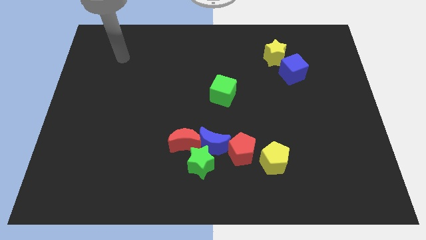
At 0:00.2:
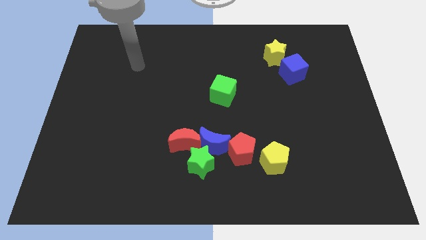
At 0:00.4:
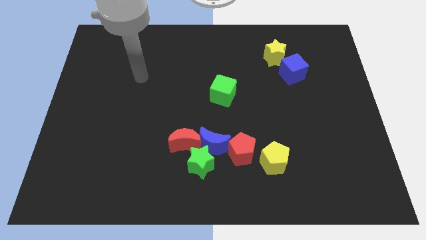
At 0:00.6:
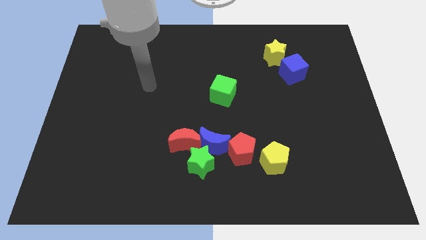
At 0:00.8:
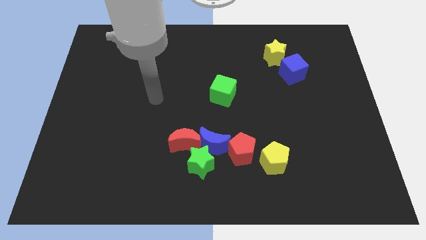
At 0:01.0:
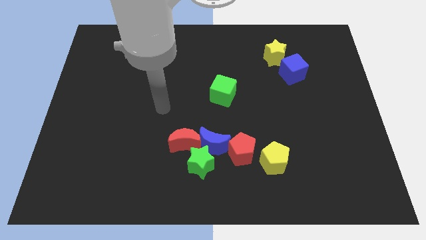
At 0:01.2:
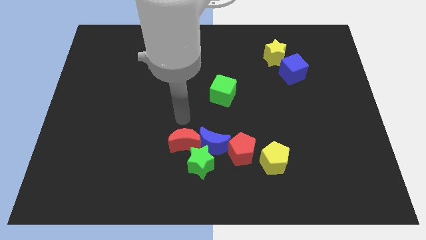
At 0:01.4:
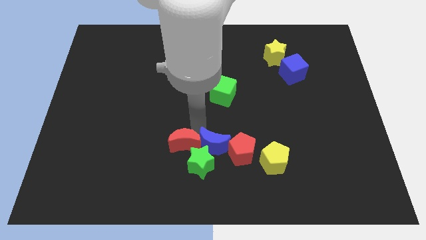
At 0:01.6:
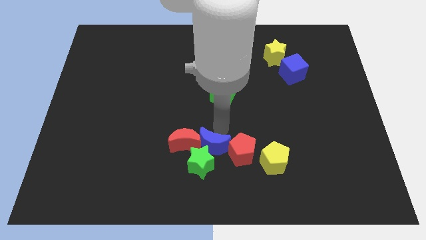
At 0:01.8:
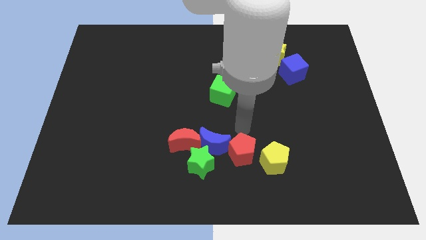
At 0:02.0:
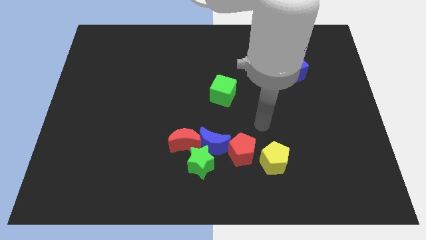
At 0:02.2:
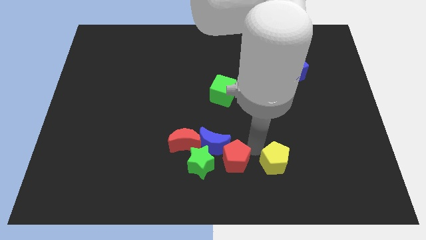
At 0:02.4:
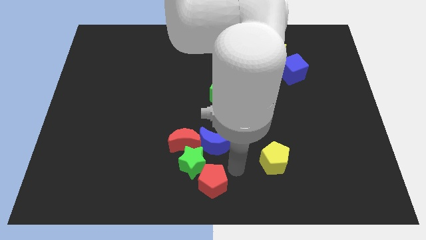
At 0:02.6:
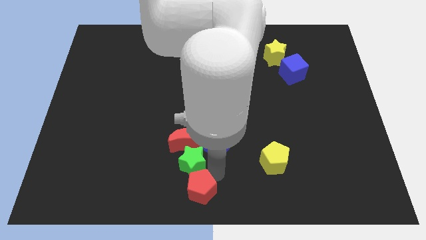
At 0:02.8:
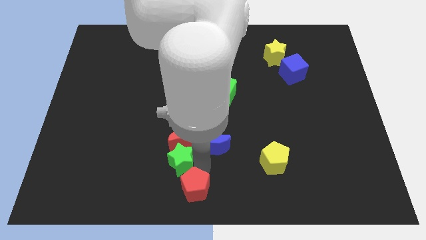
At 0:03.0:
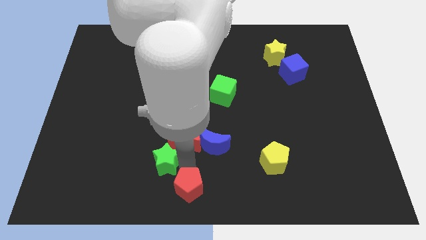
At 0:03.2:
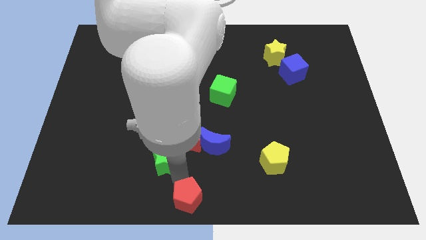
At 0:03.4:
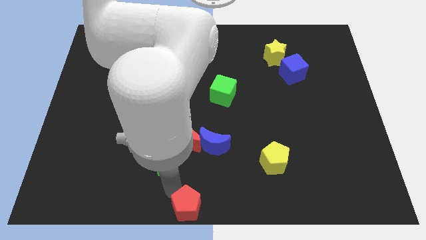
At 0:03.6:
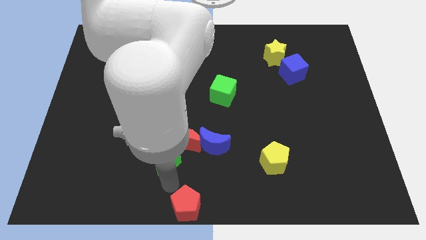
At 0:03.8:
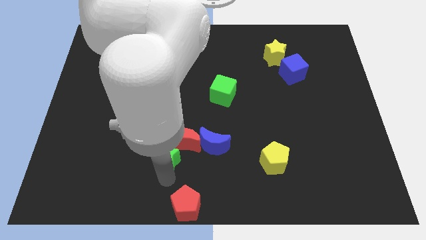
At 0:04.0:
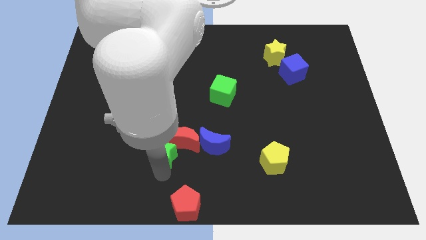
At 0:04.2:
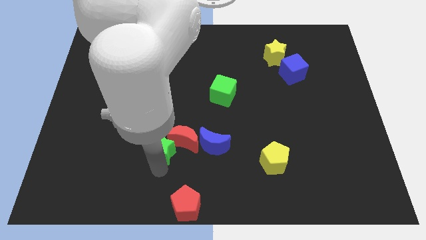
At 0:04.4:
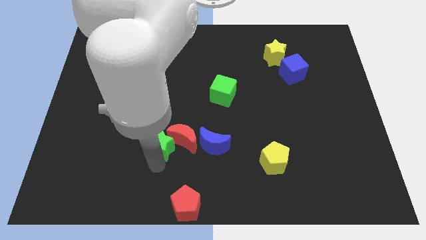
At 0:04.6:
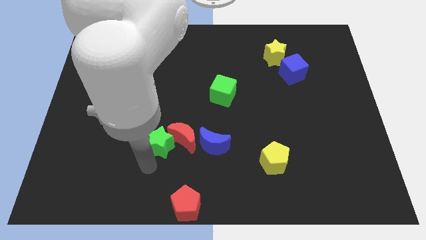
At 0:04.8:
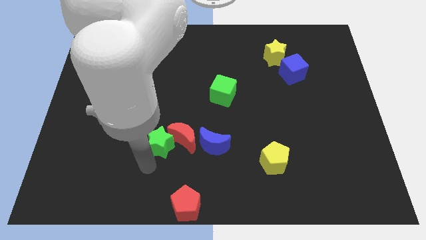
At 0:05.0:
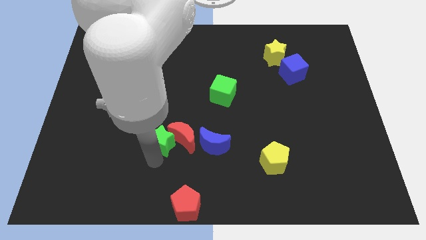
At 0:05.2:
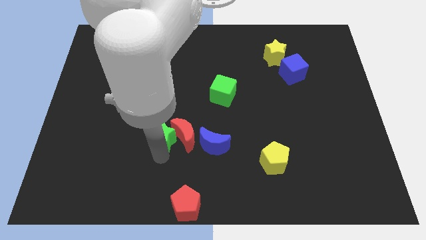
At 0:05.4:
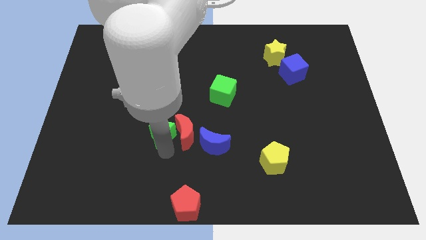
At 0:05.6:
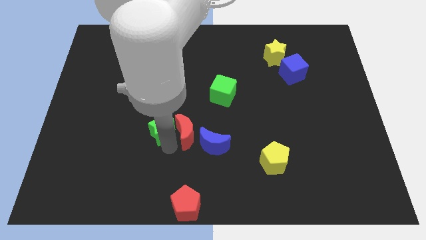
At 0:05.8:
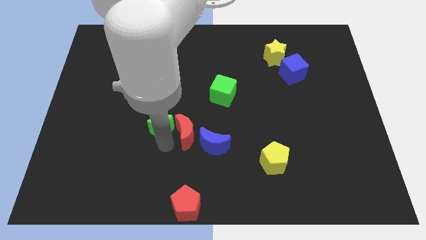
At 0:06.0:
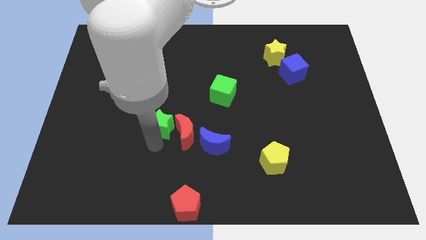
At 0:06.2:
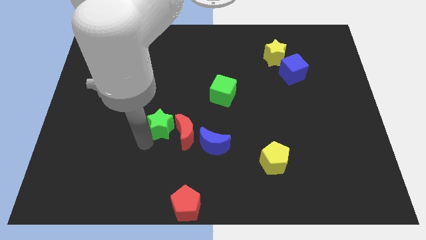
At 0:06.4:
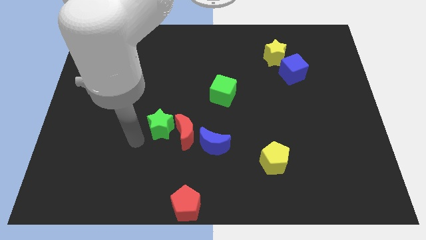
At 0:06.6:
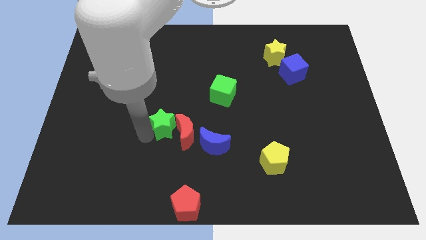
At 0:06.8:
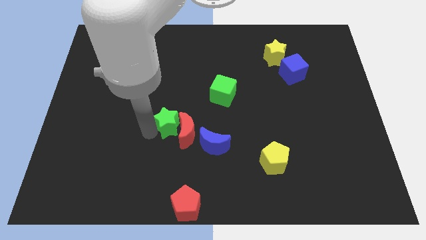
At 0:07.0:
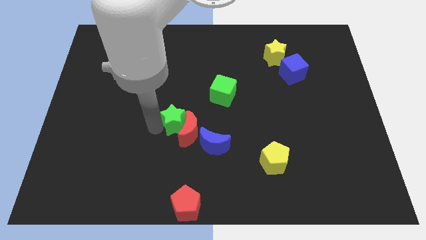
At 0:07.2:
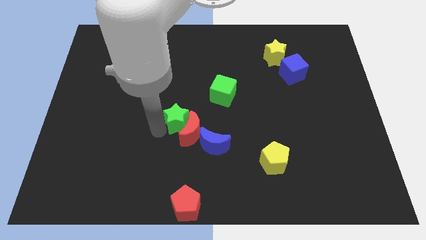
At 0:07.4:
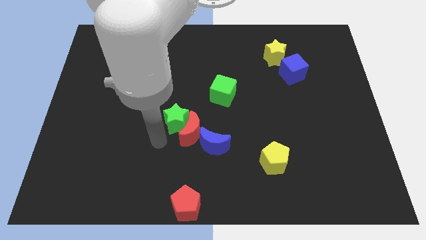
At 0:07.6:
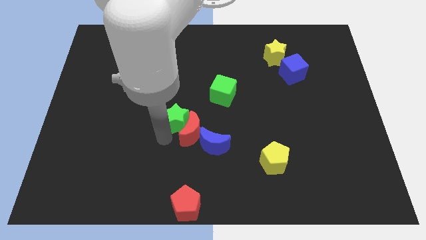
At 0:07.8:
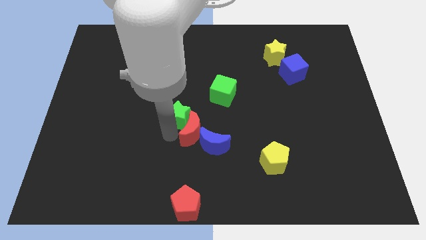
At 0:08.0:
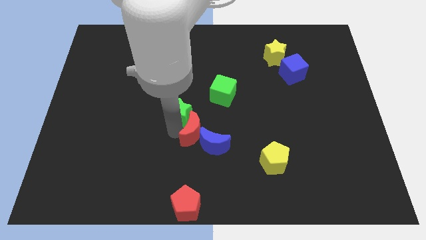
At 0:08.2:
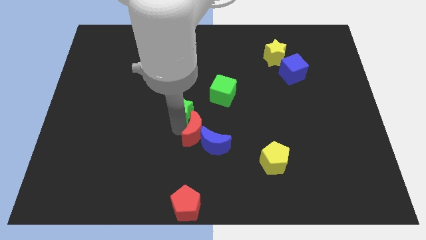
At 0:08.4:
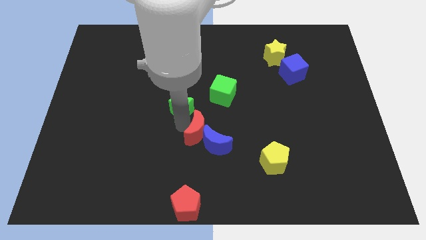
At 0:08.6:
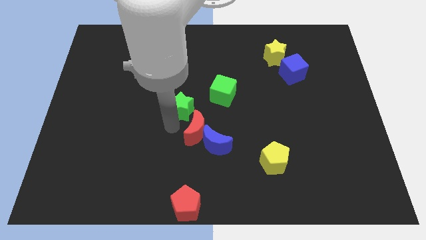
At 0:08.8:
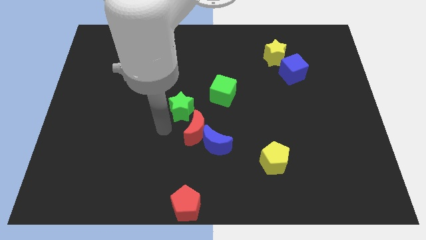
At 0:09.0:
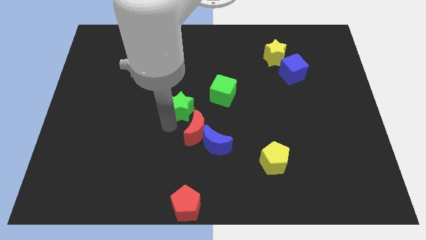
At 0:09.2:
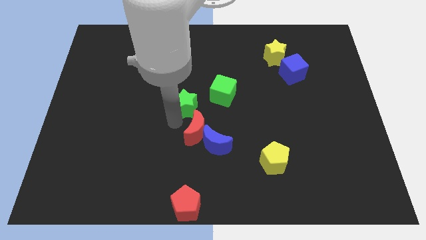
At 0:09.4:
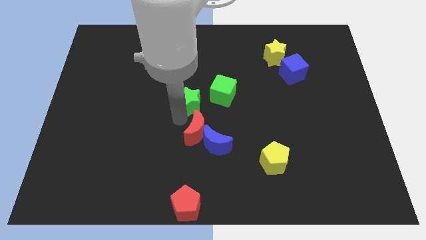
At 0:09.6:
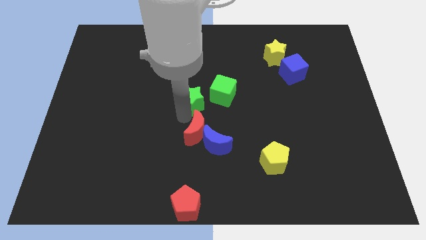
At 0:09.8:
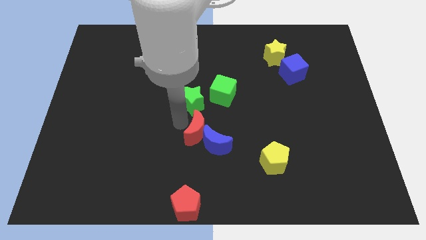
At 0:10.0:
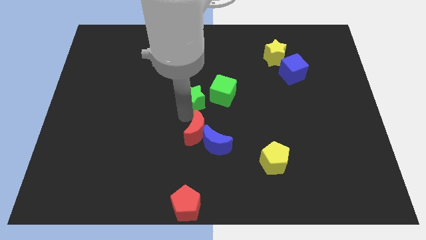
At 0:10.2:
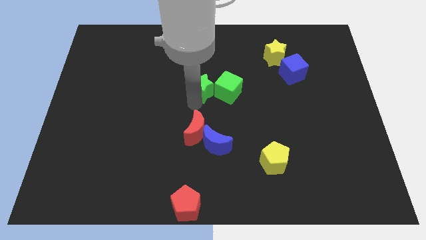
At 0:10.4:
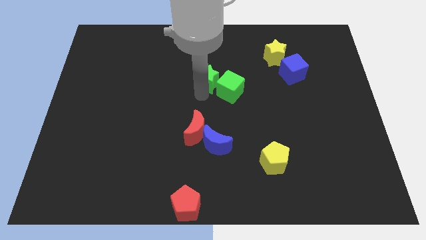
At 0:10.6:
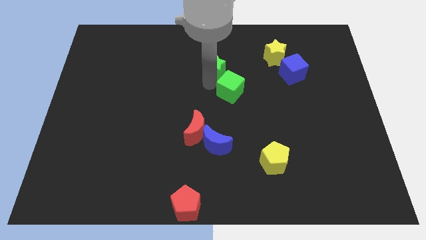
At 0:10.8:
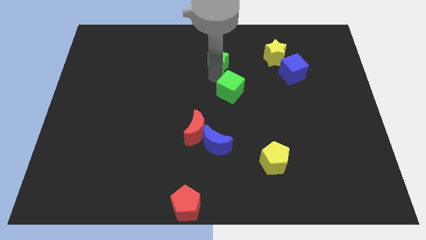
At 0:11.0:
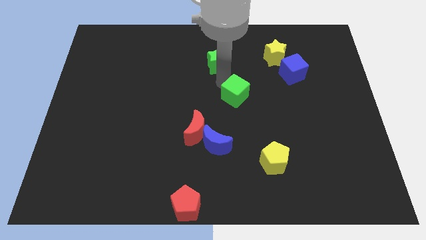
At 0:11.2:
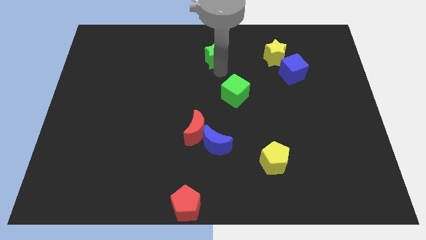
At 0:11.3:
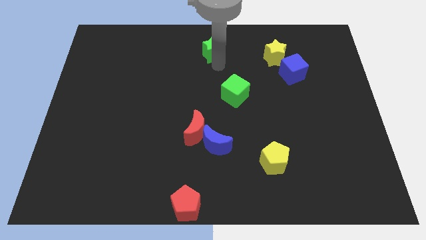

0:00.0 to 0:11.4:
move the green star to the top

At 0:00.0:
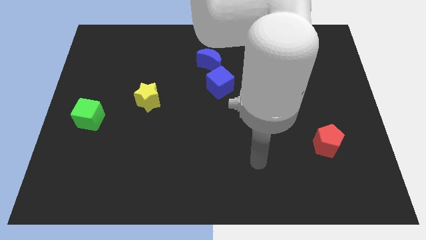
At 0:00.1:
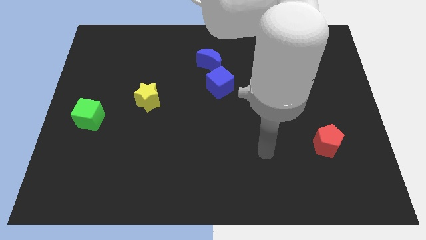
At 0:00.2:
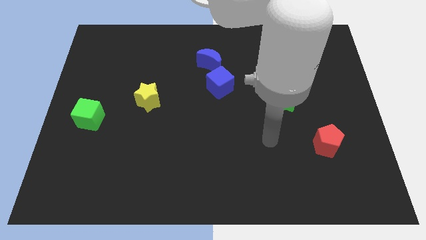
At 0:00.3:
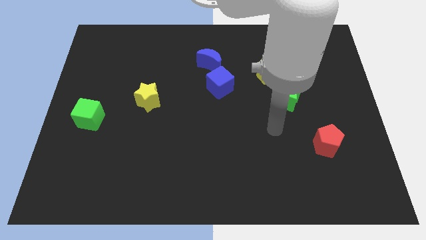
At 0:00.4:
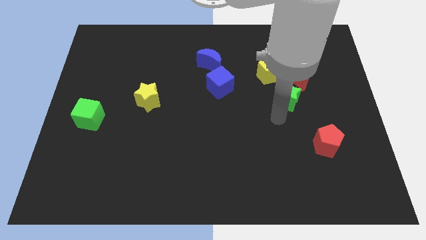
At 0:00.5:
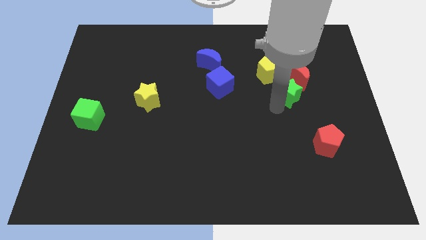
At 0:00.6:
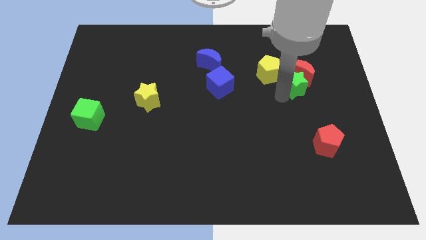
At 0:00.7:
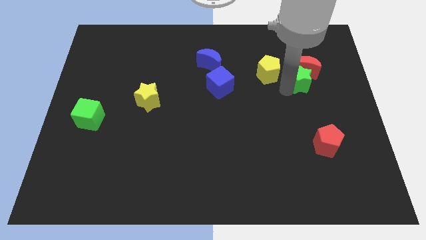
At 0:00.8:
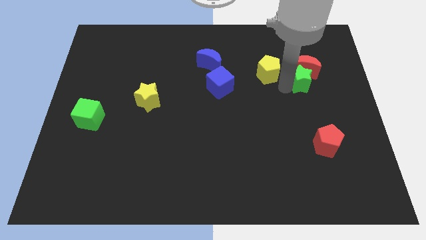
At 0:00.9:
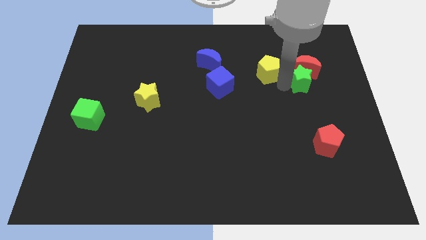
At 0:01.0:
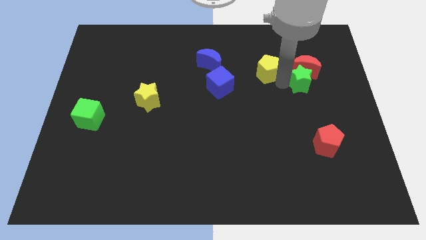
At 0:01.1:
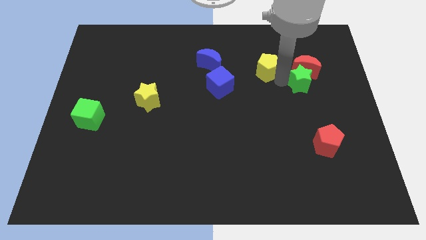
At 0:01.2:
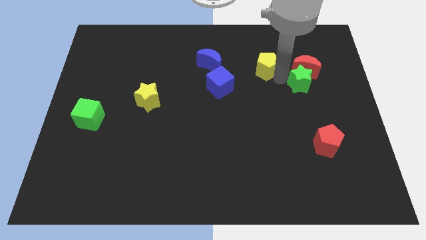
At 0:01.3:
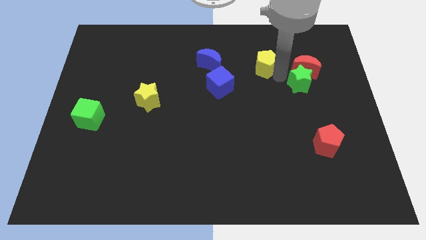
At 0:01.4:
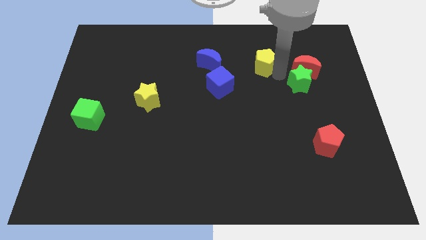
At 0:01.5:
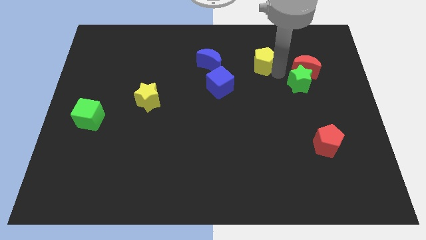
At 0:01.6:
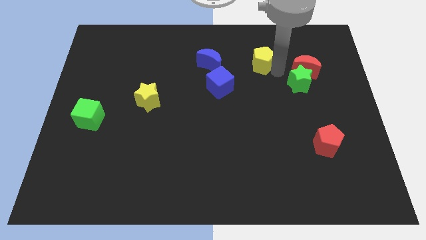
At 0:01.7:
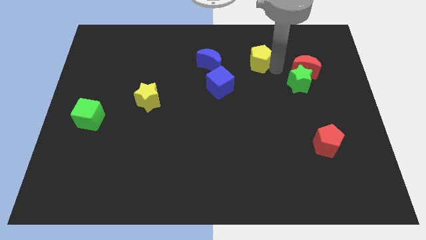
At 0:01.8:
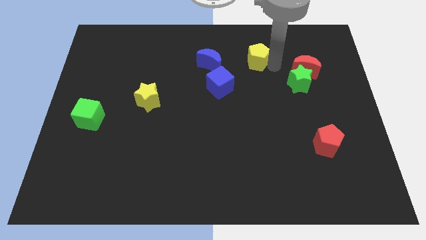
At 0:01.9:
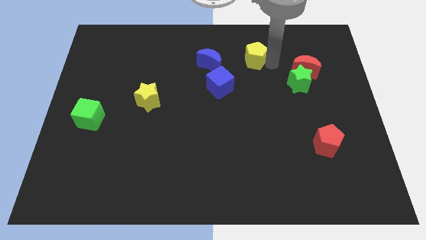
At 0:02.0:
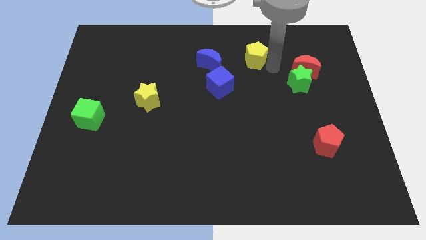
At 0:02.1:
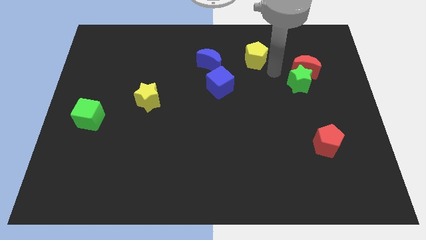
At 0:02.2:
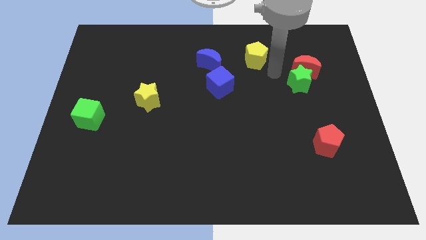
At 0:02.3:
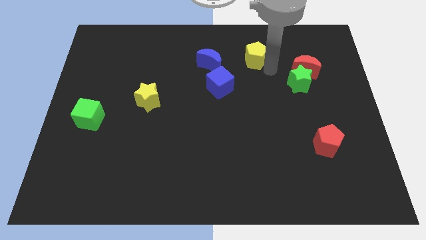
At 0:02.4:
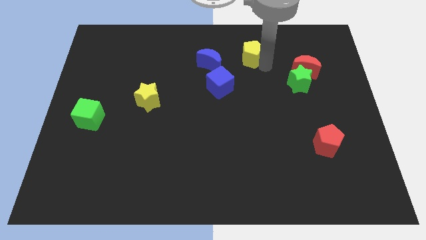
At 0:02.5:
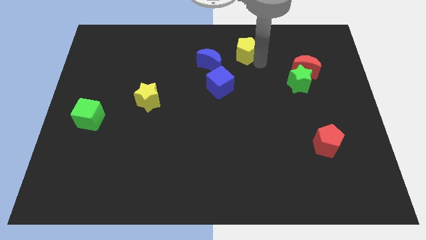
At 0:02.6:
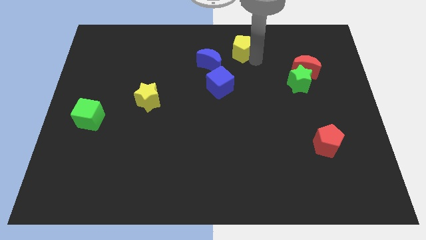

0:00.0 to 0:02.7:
push the yellow pentagon to the top side
